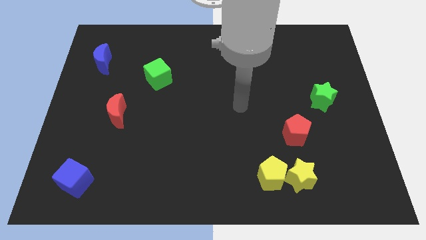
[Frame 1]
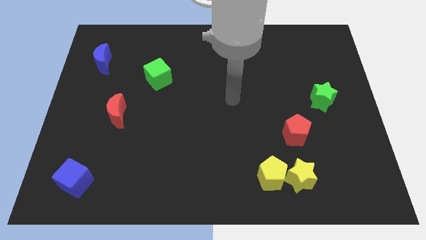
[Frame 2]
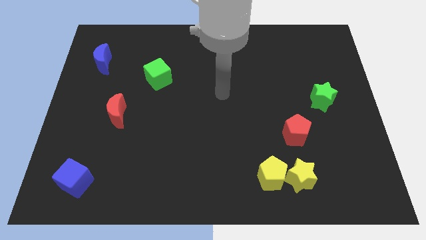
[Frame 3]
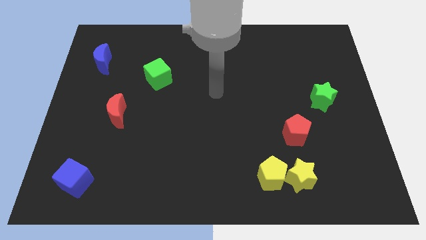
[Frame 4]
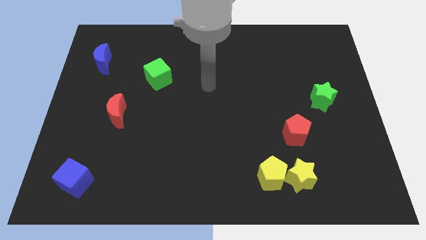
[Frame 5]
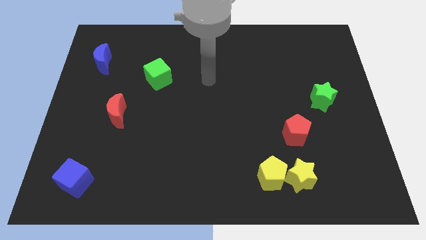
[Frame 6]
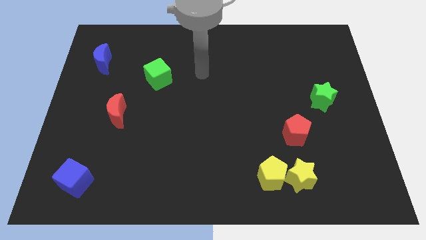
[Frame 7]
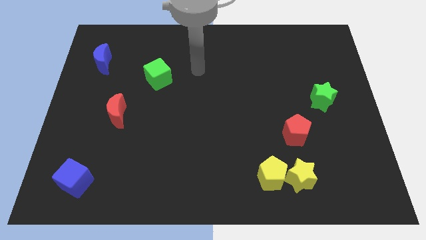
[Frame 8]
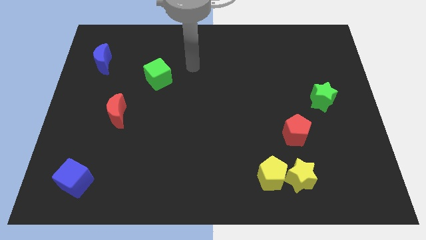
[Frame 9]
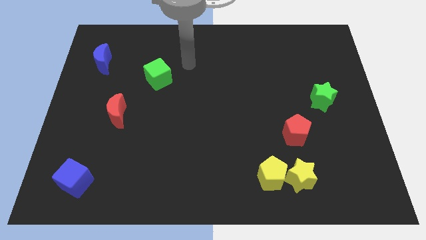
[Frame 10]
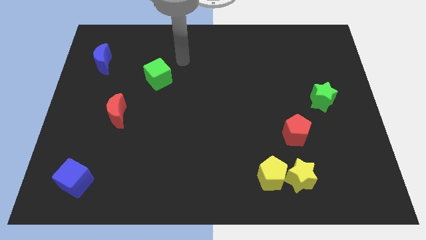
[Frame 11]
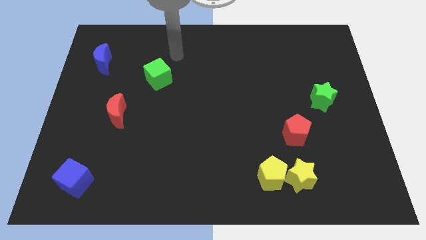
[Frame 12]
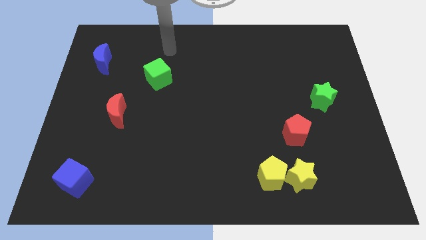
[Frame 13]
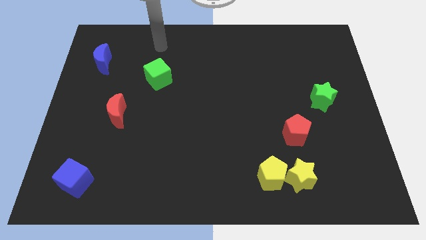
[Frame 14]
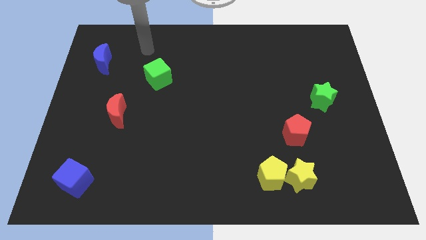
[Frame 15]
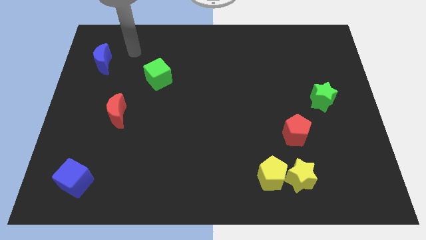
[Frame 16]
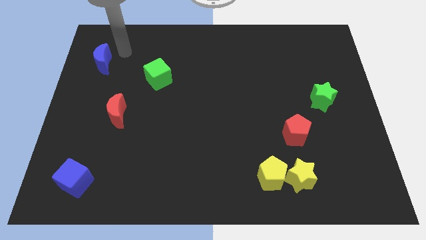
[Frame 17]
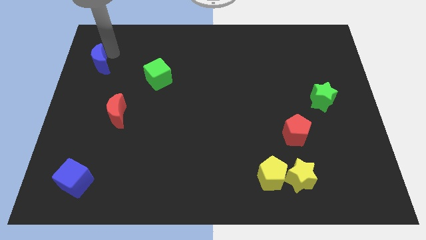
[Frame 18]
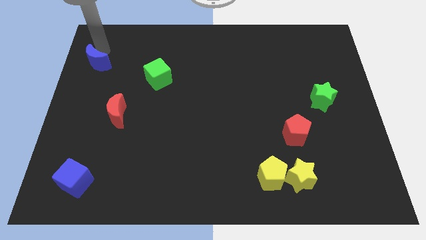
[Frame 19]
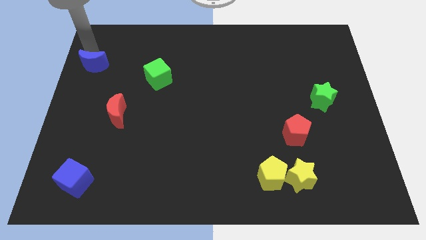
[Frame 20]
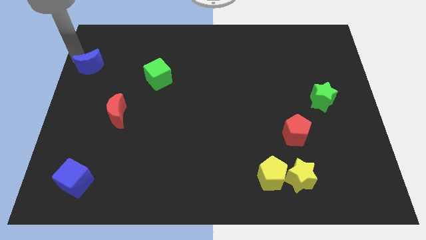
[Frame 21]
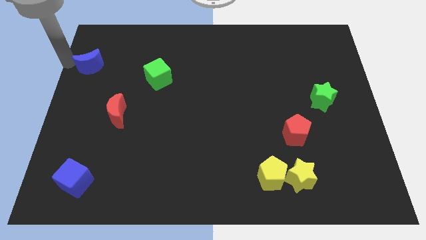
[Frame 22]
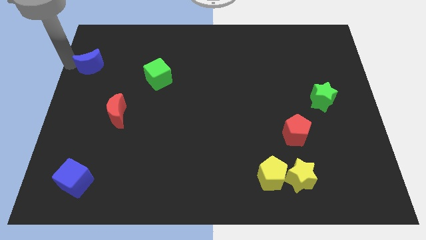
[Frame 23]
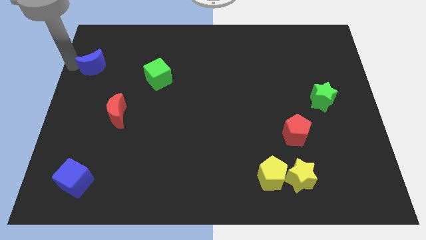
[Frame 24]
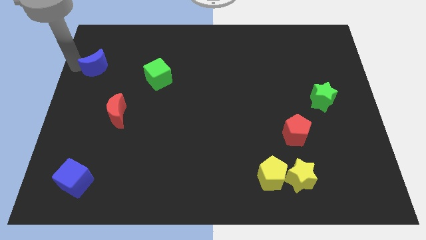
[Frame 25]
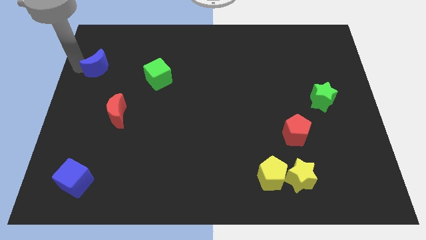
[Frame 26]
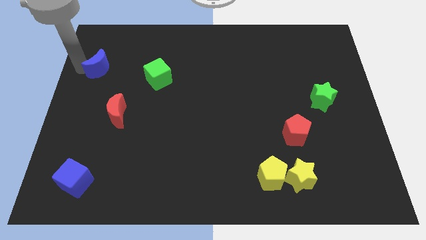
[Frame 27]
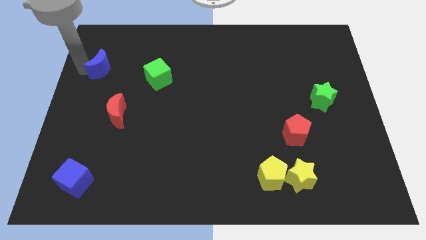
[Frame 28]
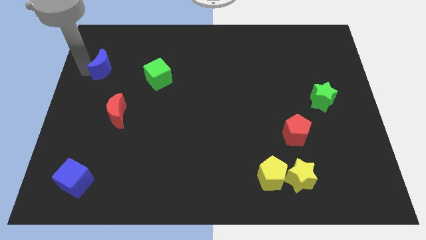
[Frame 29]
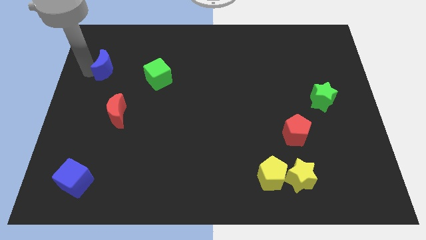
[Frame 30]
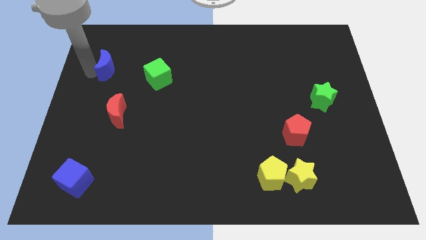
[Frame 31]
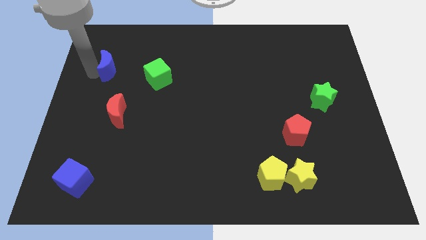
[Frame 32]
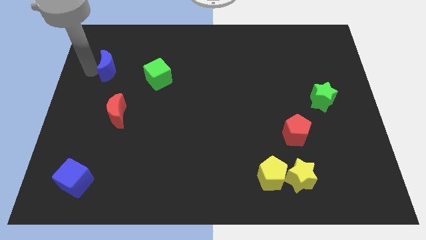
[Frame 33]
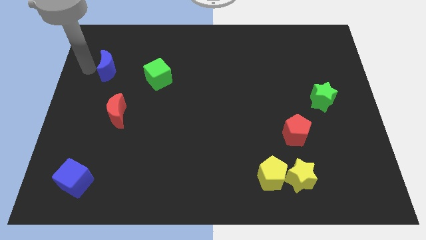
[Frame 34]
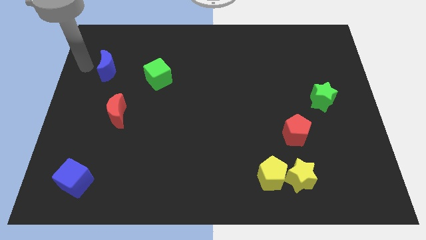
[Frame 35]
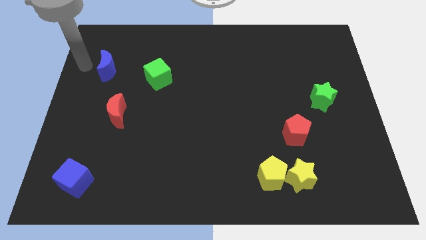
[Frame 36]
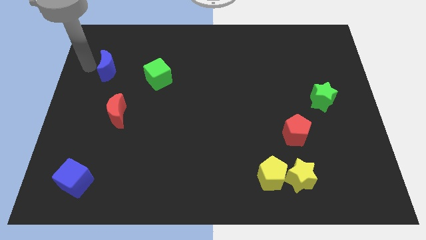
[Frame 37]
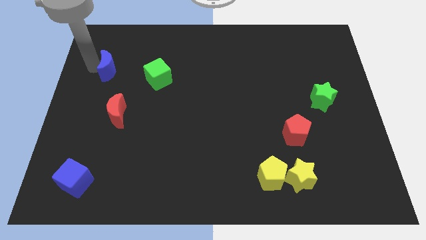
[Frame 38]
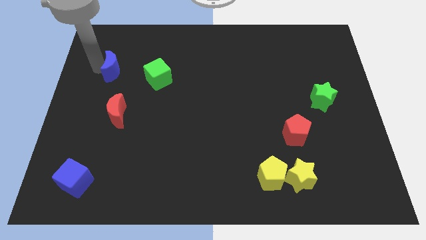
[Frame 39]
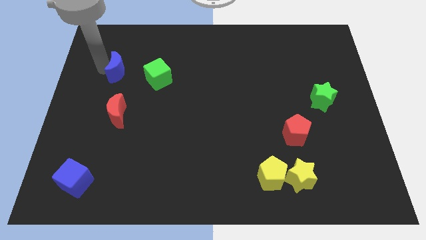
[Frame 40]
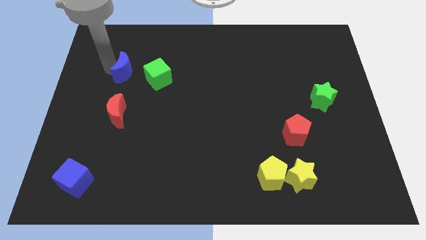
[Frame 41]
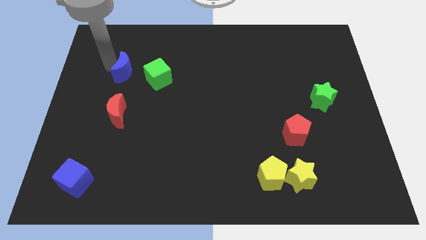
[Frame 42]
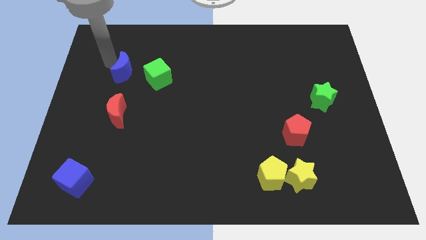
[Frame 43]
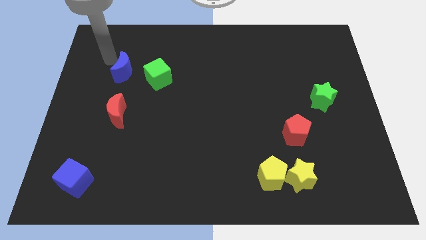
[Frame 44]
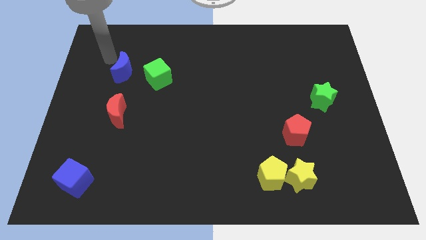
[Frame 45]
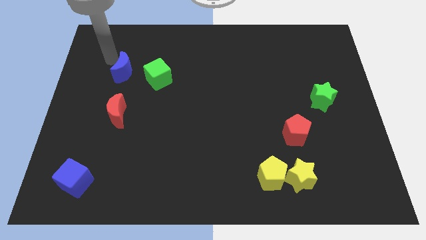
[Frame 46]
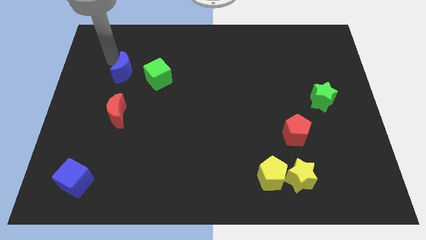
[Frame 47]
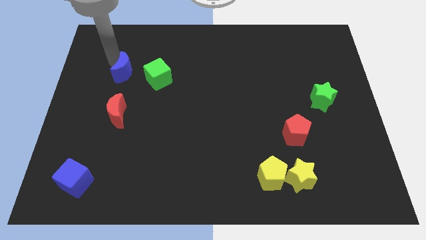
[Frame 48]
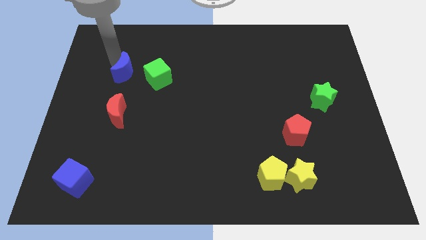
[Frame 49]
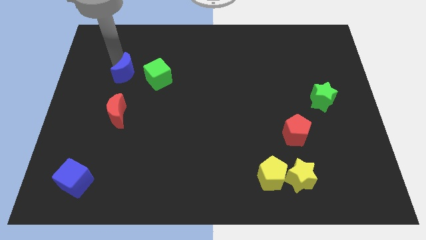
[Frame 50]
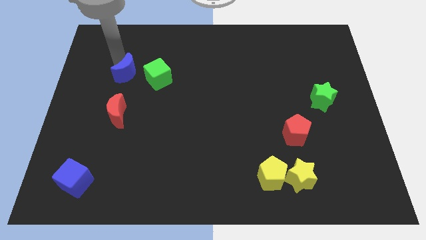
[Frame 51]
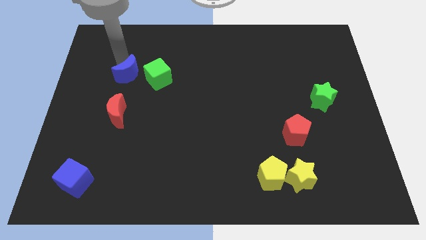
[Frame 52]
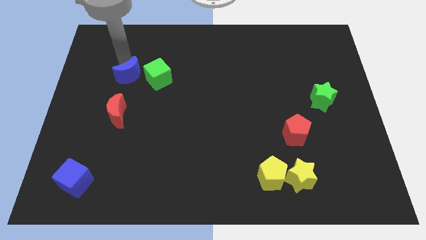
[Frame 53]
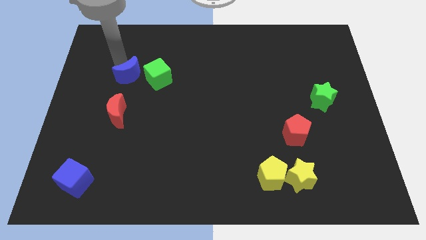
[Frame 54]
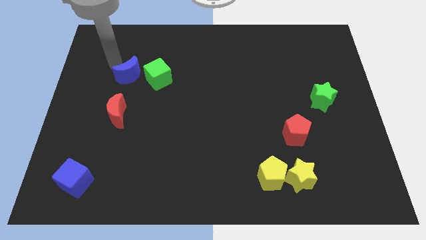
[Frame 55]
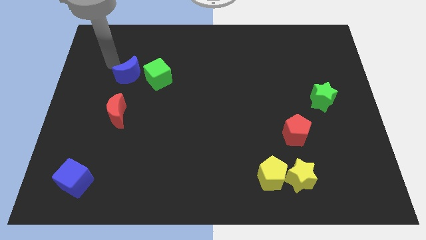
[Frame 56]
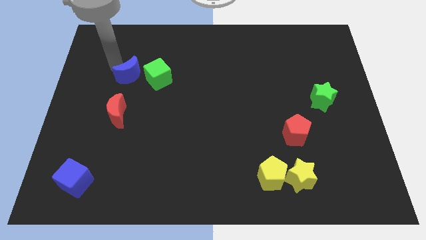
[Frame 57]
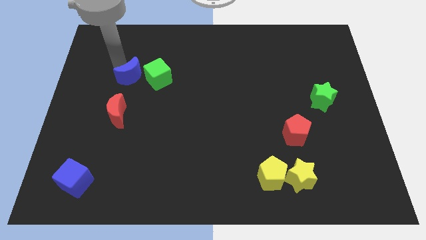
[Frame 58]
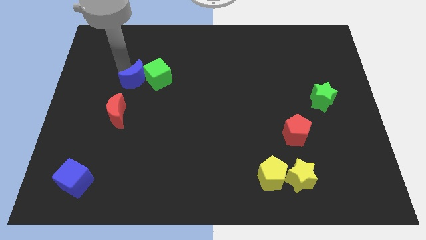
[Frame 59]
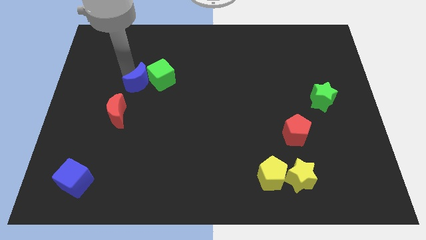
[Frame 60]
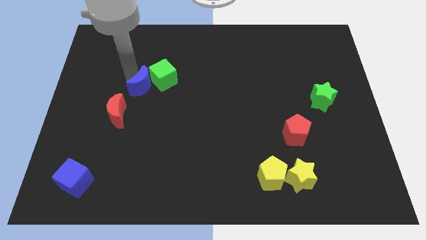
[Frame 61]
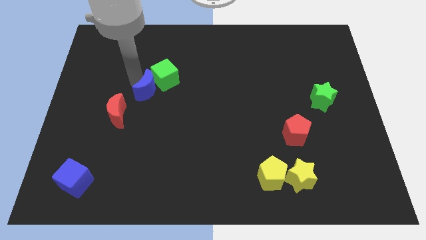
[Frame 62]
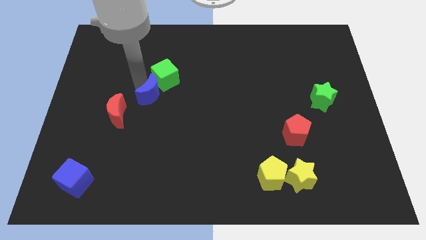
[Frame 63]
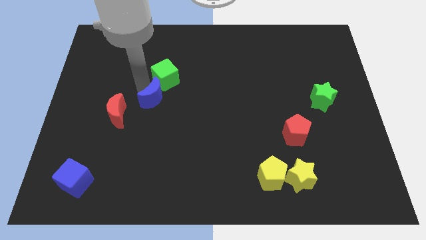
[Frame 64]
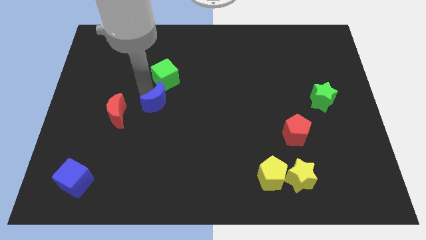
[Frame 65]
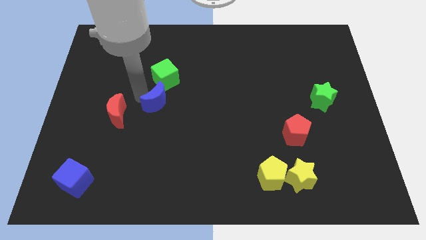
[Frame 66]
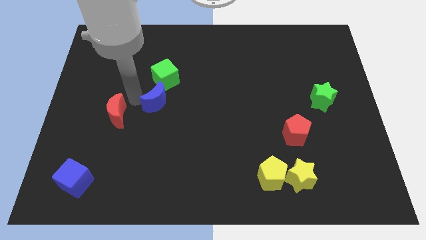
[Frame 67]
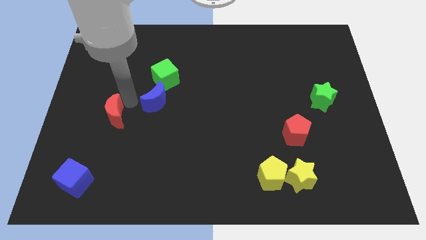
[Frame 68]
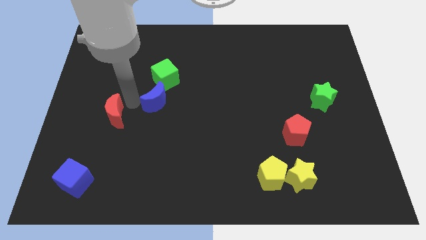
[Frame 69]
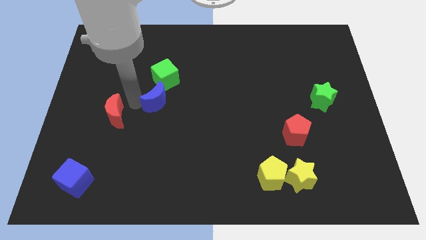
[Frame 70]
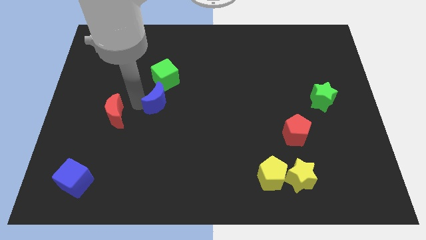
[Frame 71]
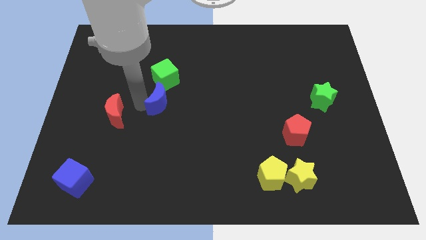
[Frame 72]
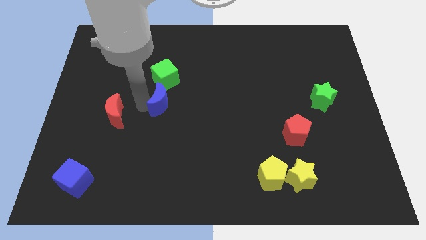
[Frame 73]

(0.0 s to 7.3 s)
put the blue moon to the middle of the board
